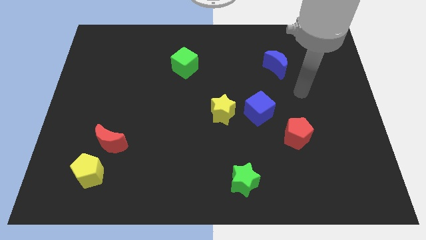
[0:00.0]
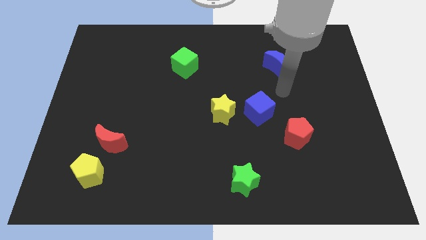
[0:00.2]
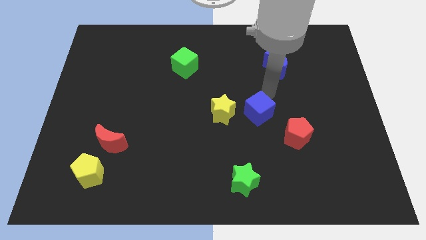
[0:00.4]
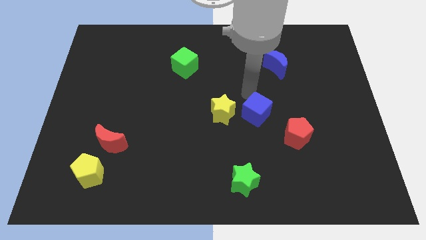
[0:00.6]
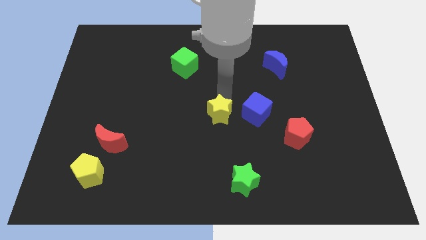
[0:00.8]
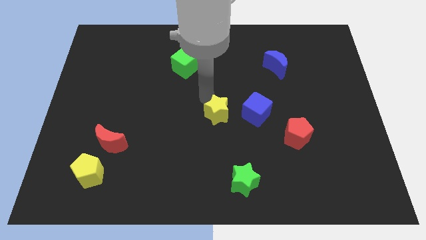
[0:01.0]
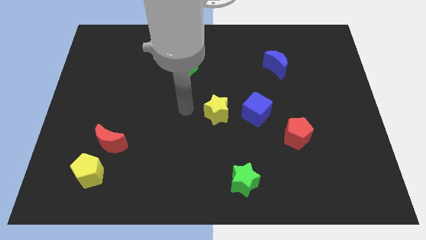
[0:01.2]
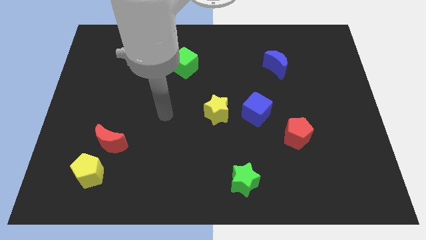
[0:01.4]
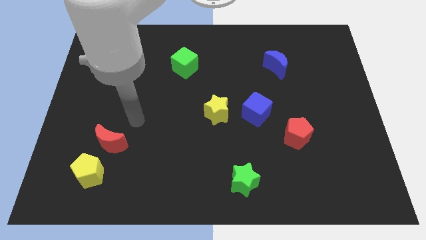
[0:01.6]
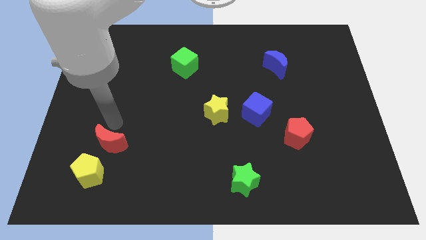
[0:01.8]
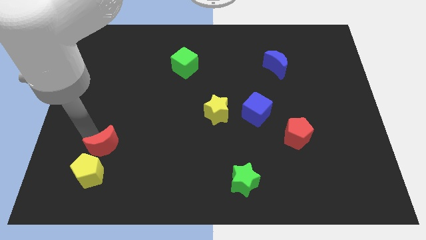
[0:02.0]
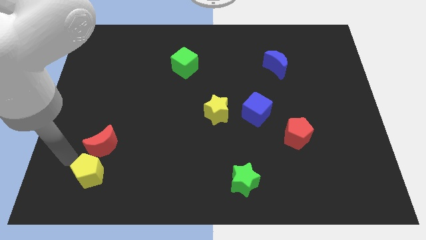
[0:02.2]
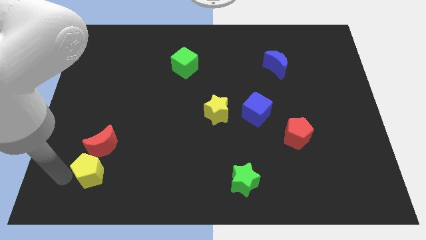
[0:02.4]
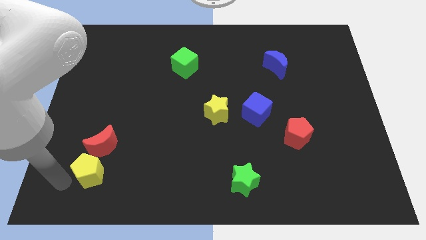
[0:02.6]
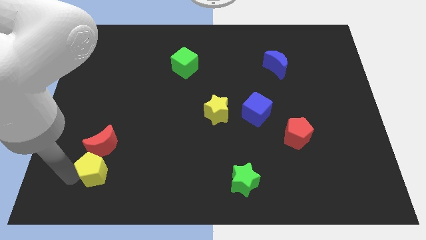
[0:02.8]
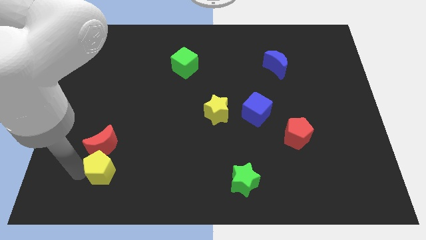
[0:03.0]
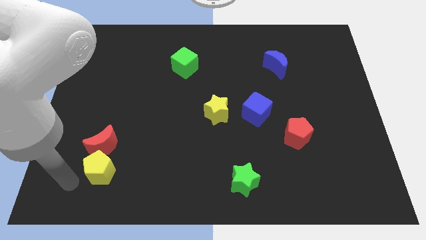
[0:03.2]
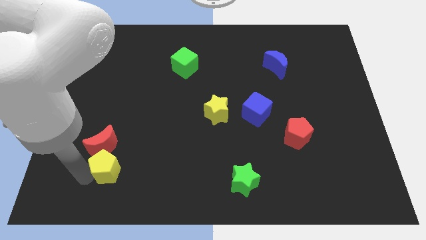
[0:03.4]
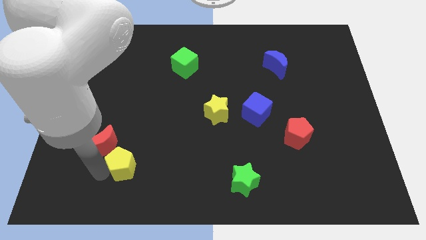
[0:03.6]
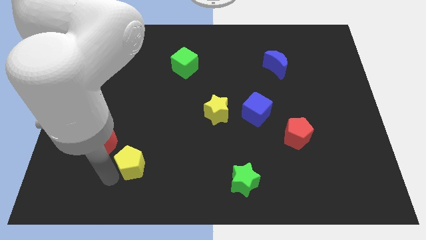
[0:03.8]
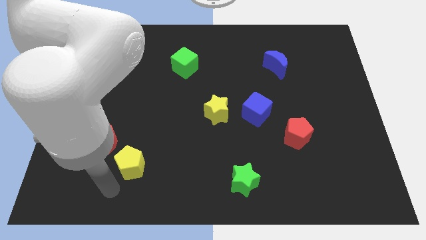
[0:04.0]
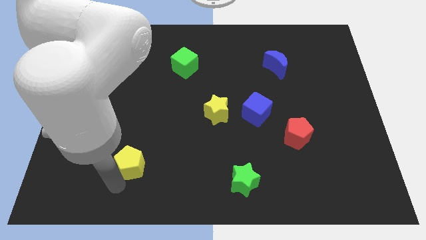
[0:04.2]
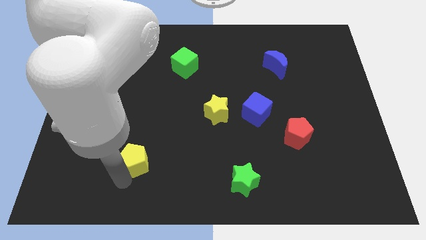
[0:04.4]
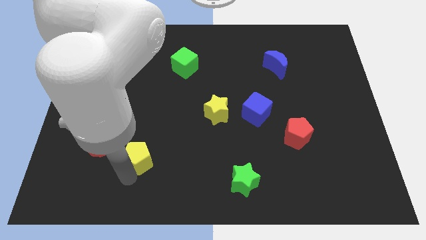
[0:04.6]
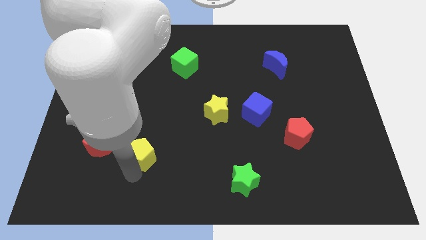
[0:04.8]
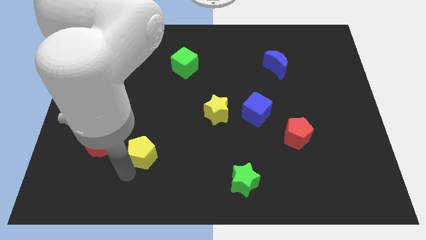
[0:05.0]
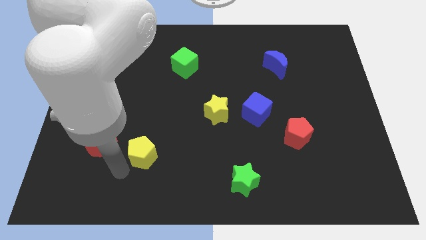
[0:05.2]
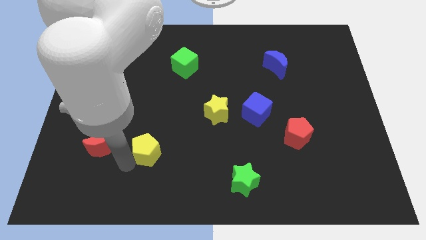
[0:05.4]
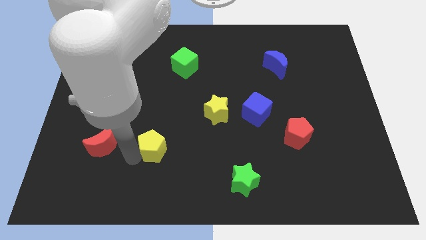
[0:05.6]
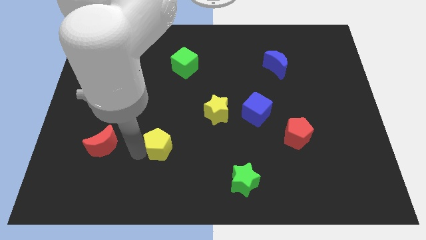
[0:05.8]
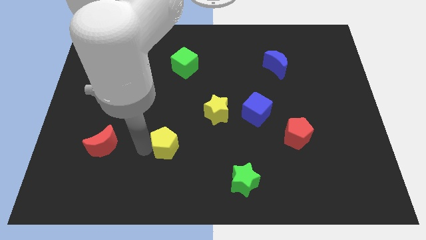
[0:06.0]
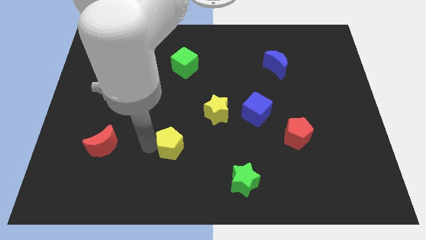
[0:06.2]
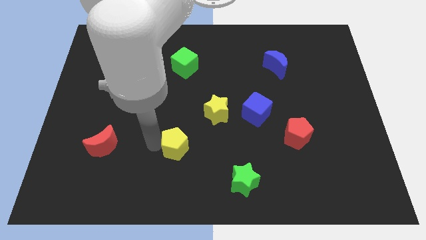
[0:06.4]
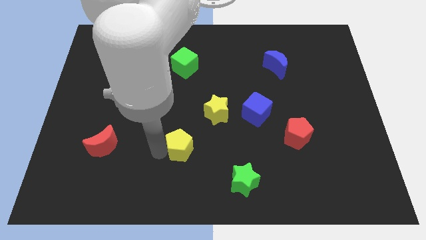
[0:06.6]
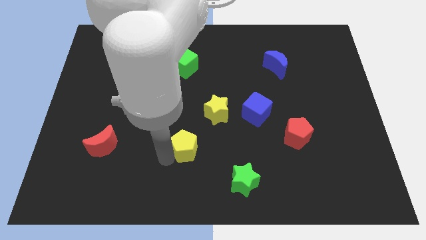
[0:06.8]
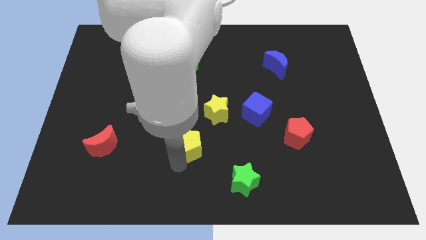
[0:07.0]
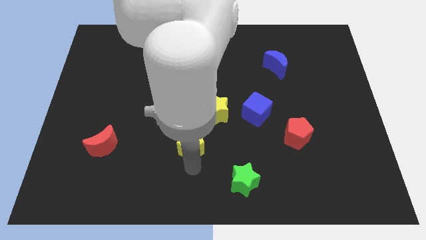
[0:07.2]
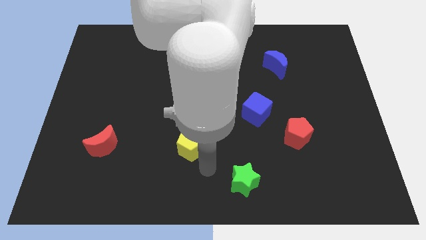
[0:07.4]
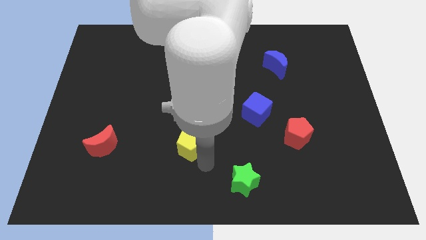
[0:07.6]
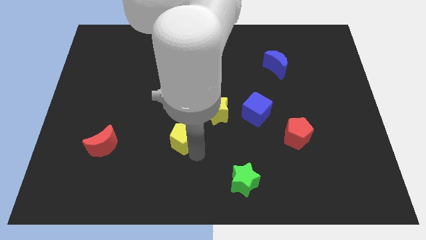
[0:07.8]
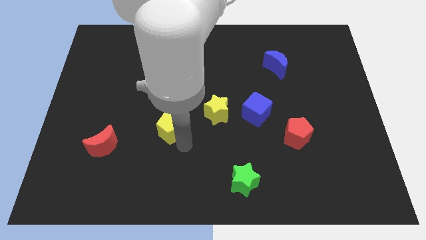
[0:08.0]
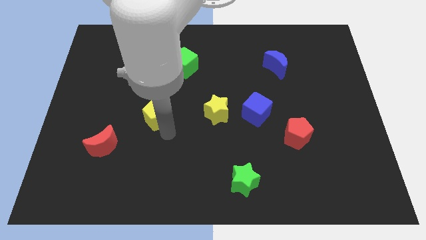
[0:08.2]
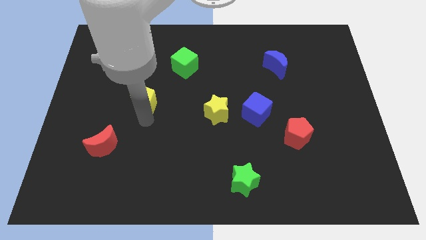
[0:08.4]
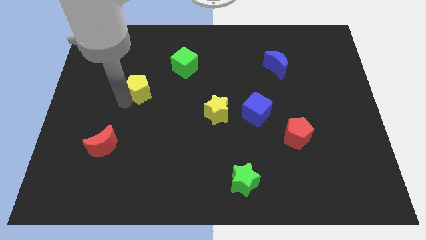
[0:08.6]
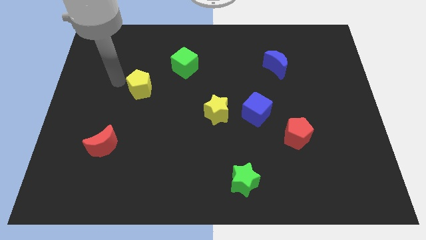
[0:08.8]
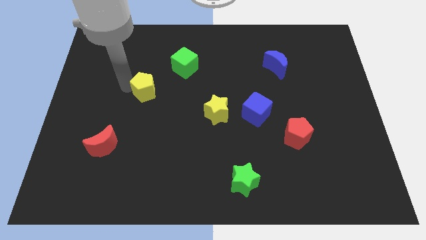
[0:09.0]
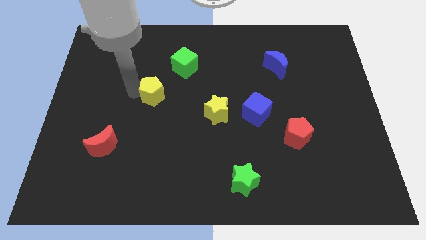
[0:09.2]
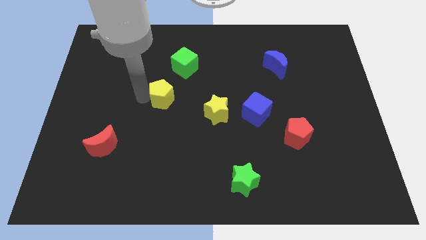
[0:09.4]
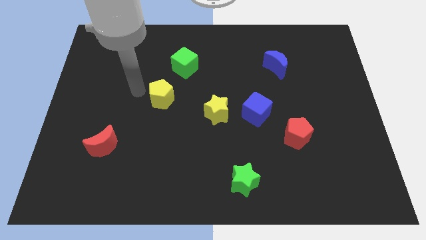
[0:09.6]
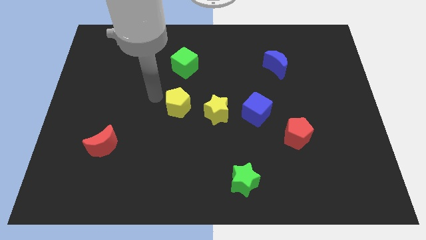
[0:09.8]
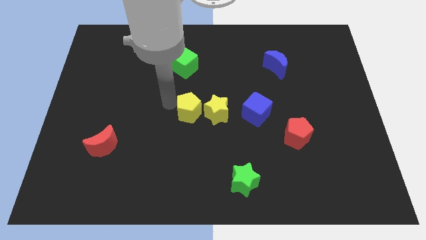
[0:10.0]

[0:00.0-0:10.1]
put the yellow pentagon to the left side of the blue cube

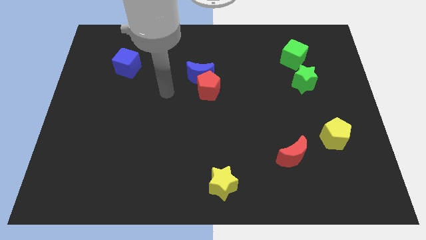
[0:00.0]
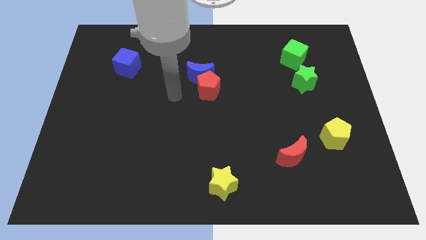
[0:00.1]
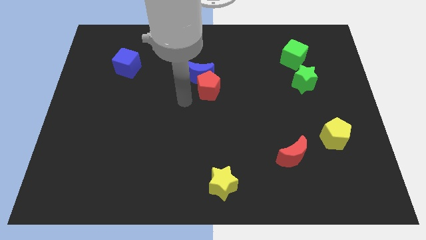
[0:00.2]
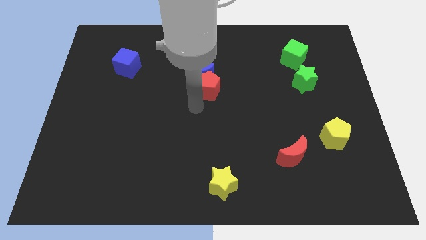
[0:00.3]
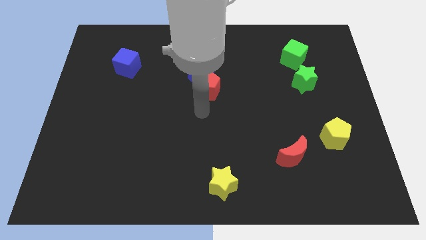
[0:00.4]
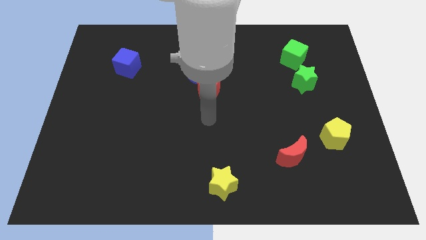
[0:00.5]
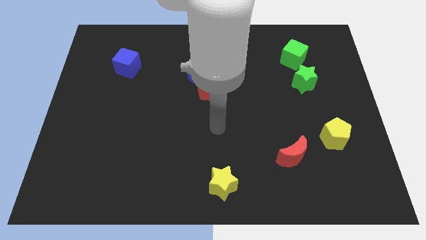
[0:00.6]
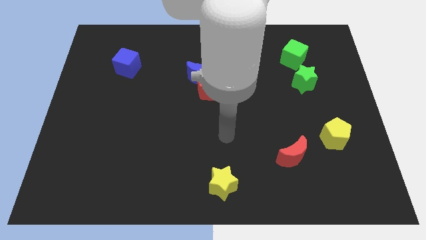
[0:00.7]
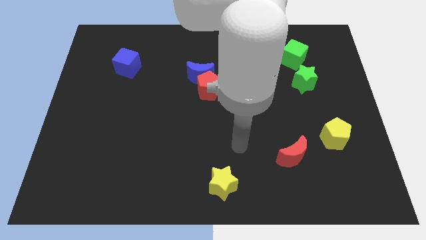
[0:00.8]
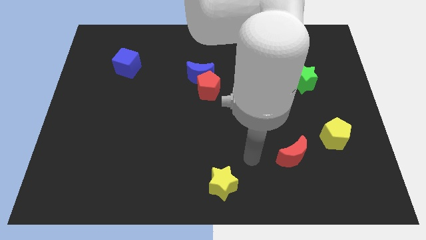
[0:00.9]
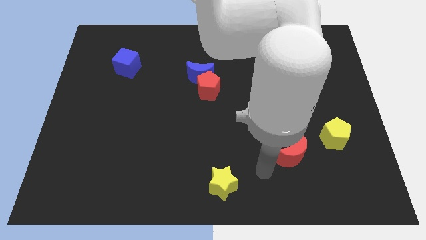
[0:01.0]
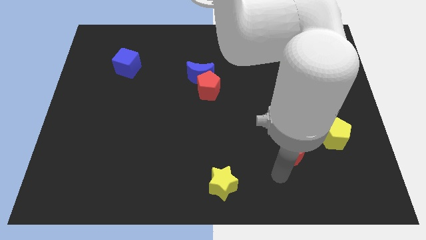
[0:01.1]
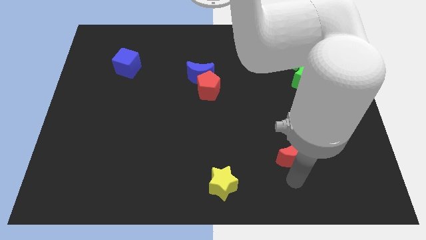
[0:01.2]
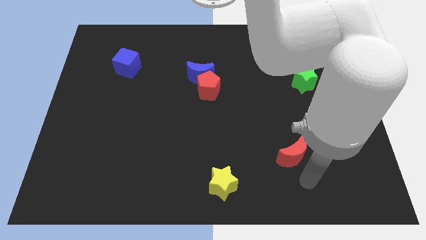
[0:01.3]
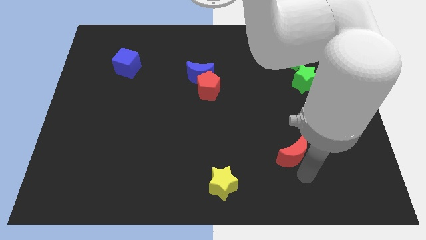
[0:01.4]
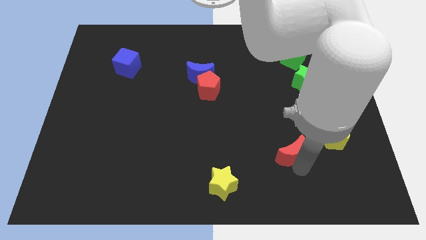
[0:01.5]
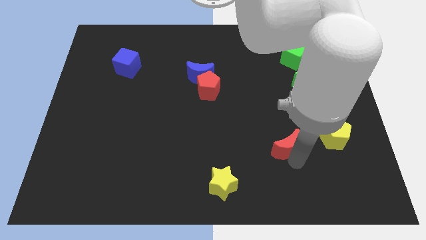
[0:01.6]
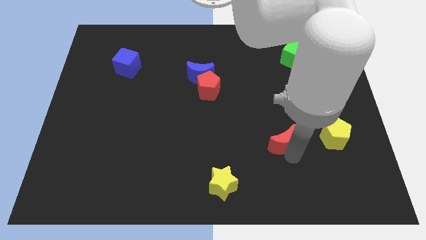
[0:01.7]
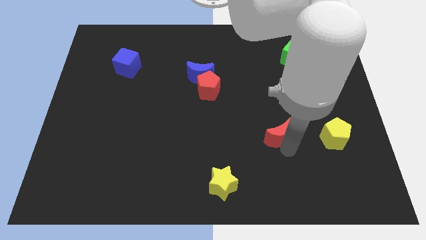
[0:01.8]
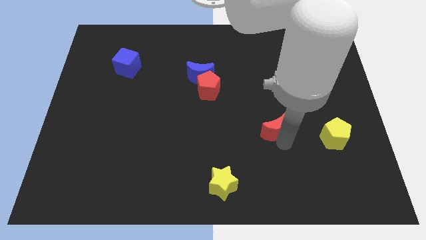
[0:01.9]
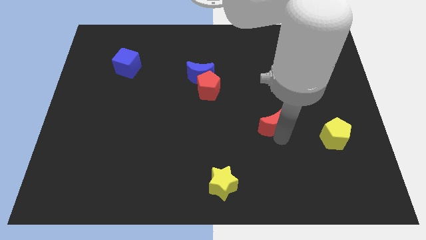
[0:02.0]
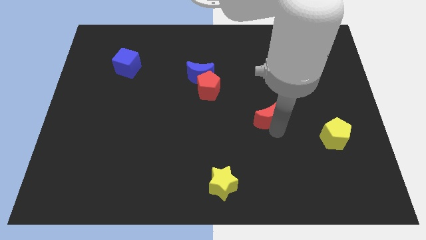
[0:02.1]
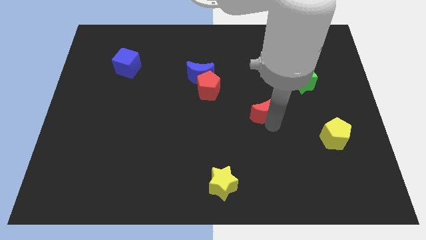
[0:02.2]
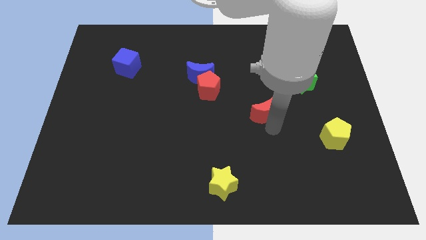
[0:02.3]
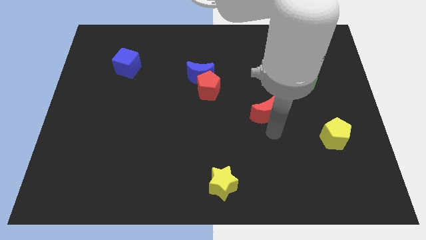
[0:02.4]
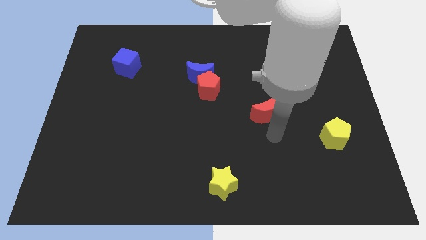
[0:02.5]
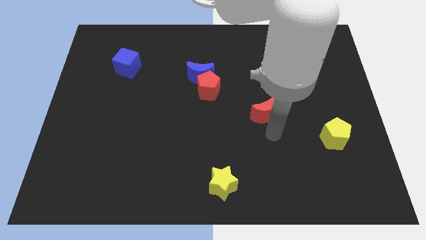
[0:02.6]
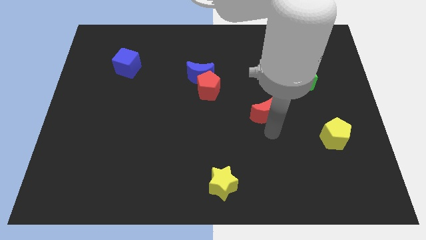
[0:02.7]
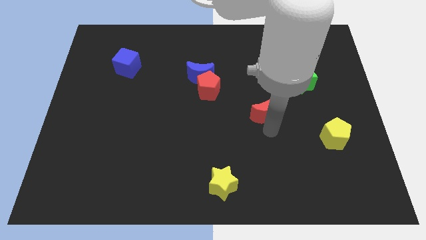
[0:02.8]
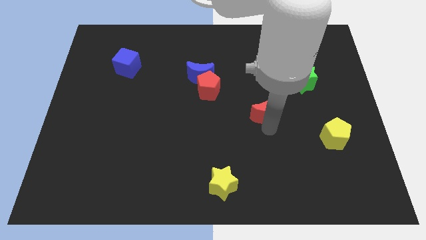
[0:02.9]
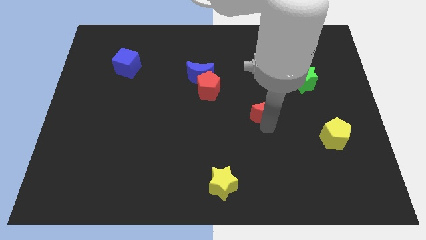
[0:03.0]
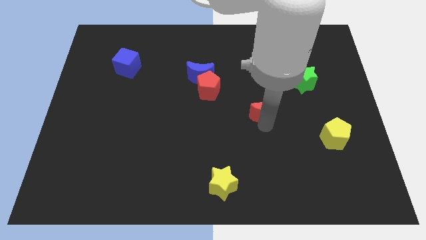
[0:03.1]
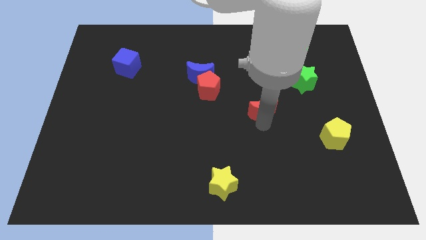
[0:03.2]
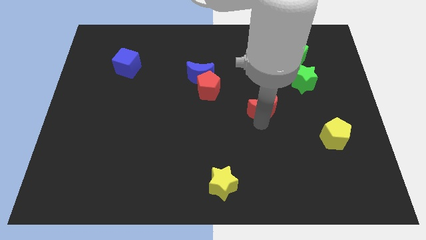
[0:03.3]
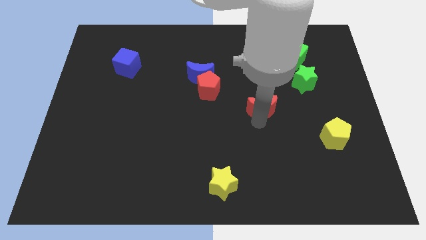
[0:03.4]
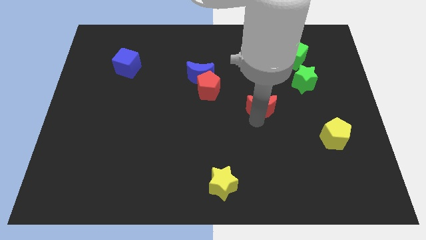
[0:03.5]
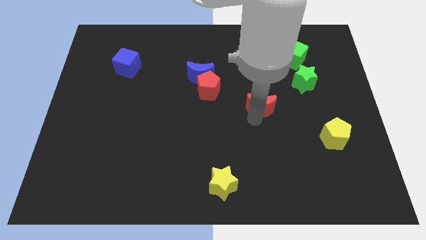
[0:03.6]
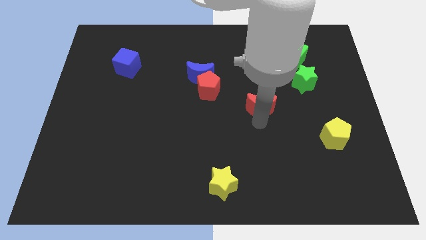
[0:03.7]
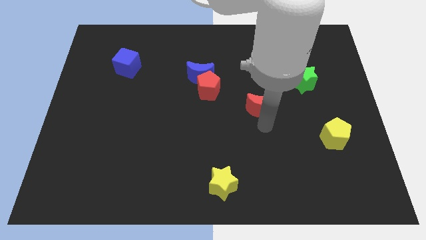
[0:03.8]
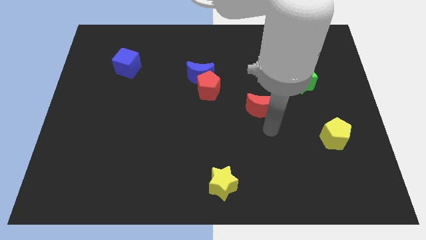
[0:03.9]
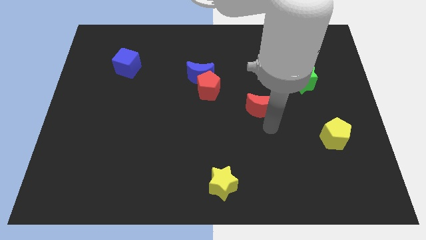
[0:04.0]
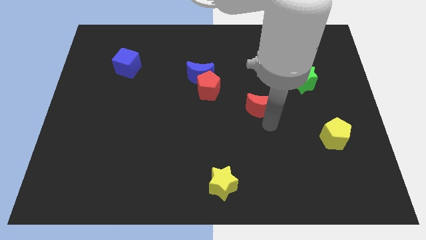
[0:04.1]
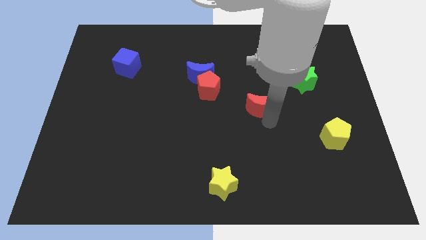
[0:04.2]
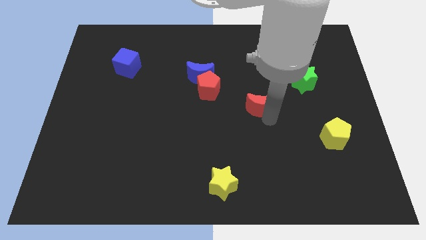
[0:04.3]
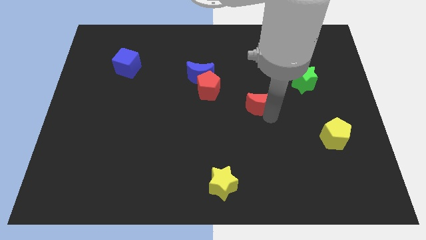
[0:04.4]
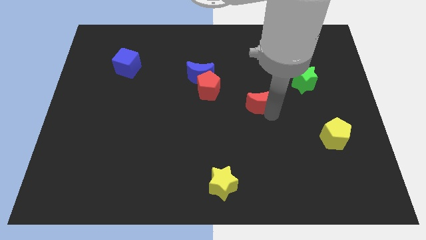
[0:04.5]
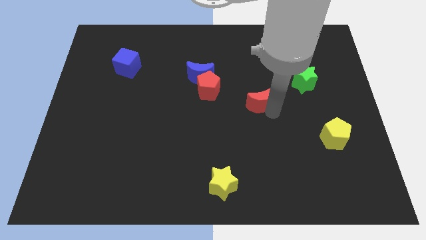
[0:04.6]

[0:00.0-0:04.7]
move the red moon just right of the red pentagon
